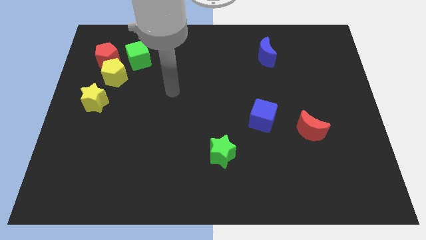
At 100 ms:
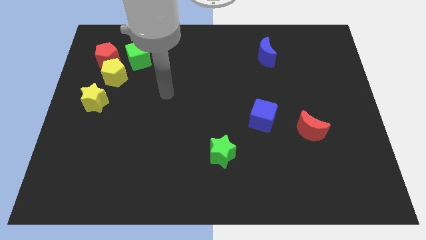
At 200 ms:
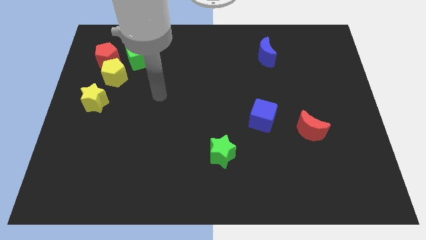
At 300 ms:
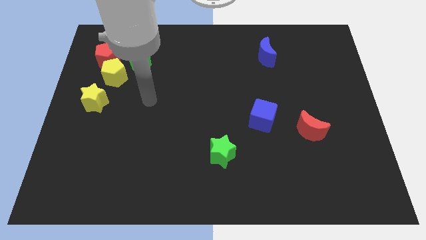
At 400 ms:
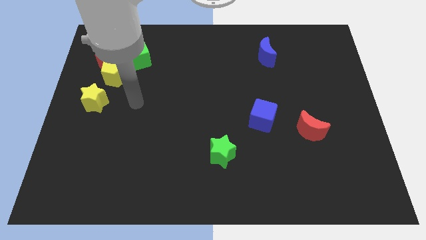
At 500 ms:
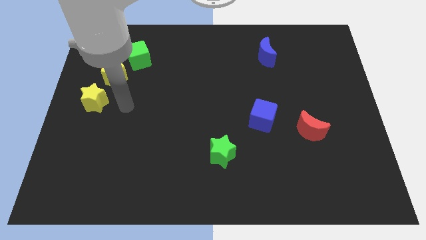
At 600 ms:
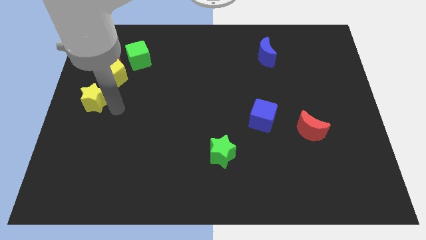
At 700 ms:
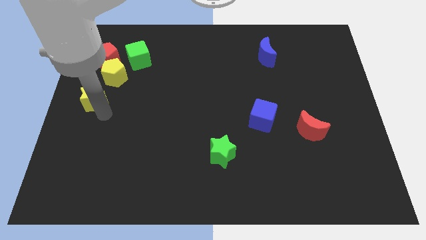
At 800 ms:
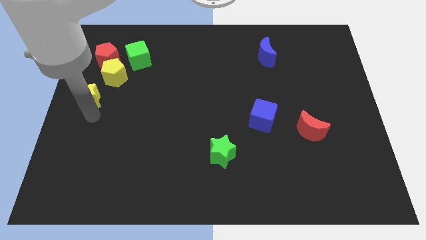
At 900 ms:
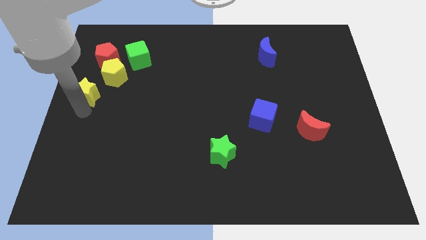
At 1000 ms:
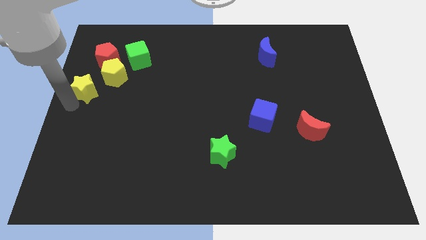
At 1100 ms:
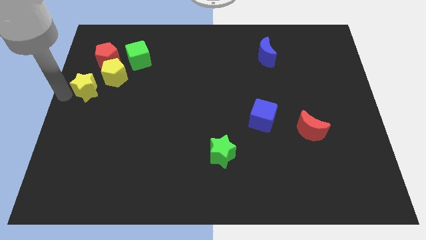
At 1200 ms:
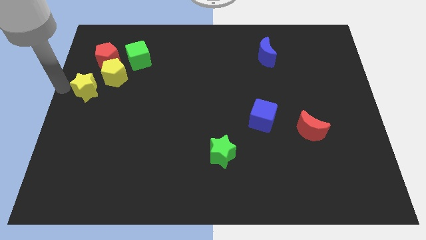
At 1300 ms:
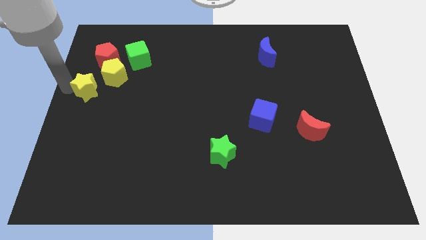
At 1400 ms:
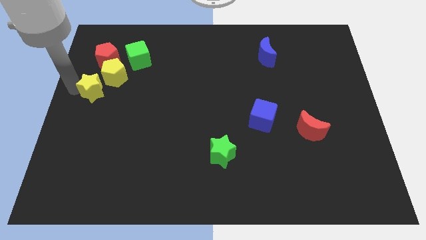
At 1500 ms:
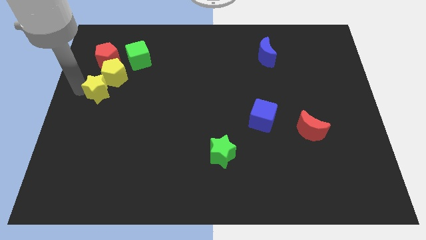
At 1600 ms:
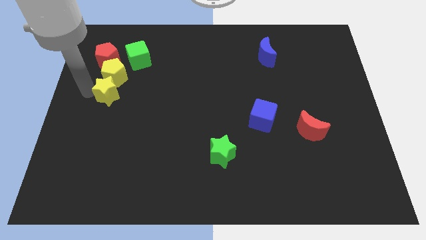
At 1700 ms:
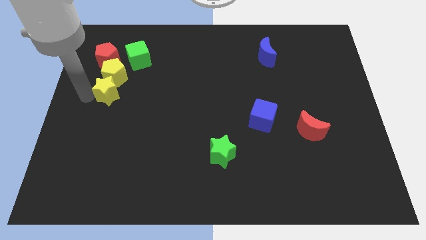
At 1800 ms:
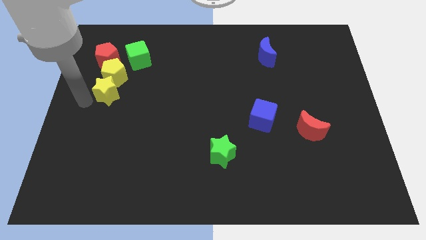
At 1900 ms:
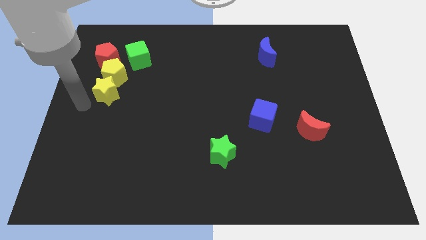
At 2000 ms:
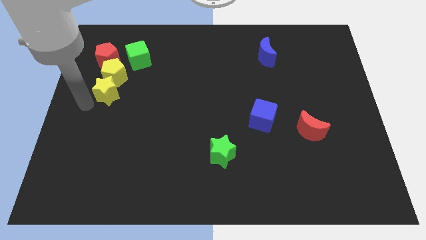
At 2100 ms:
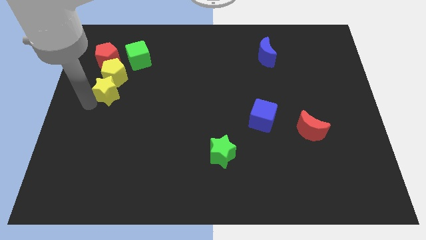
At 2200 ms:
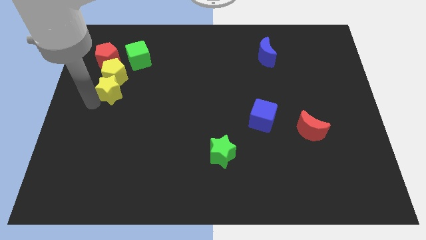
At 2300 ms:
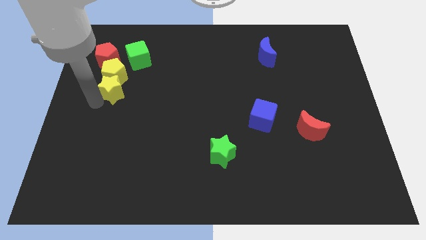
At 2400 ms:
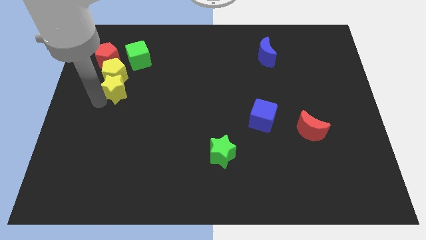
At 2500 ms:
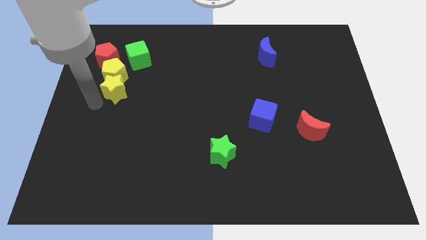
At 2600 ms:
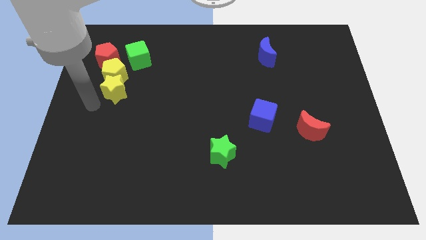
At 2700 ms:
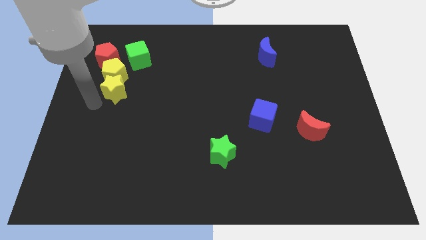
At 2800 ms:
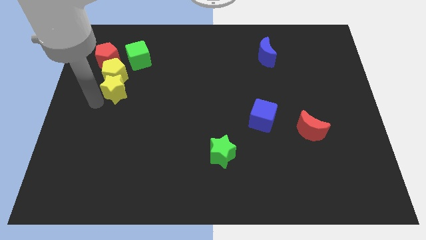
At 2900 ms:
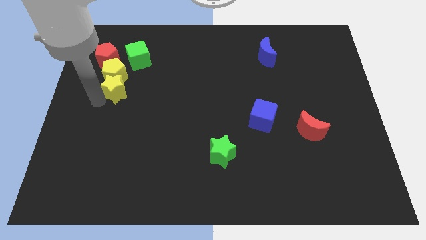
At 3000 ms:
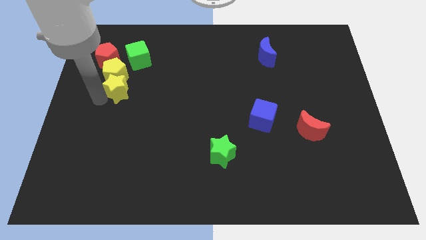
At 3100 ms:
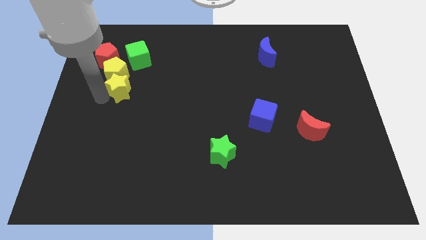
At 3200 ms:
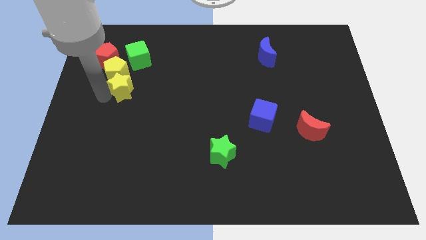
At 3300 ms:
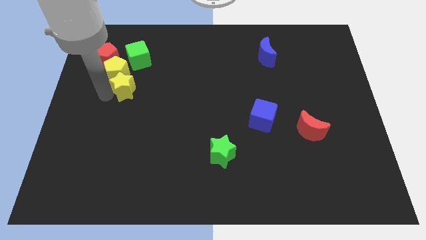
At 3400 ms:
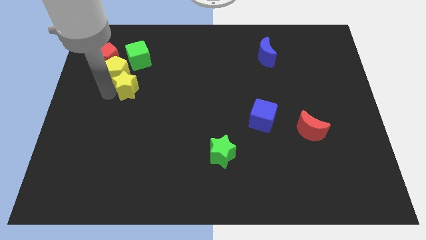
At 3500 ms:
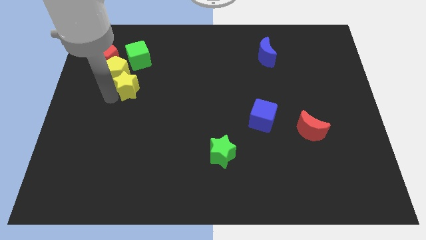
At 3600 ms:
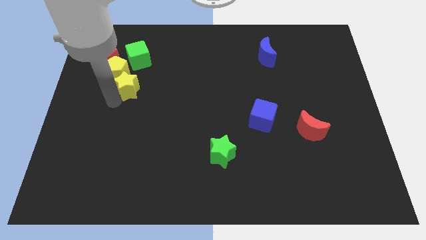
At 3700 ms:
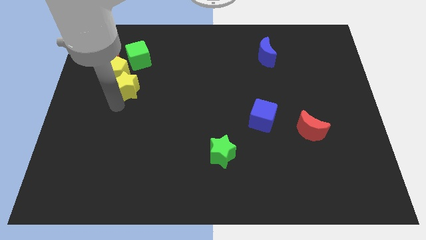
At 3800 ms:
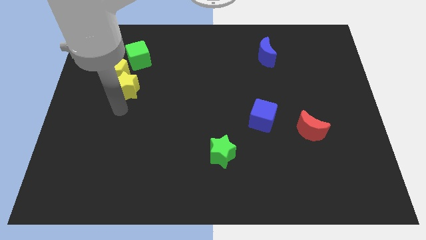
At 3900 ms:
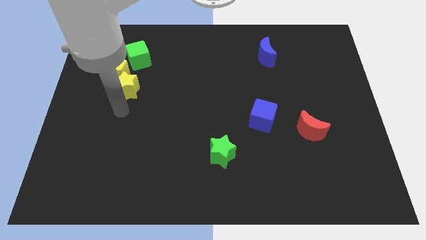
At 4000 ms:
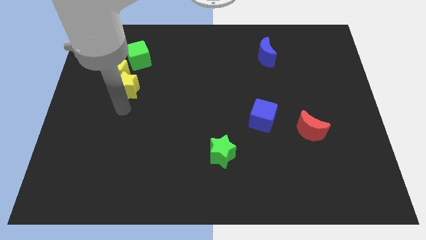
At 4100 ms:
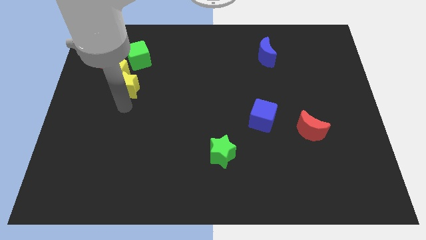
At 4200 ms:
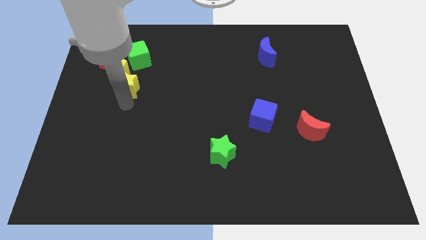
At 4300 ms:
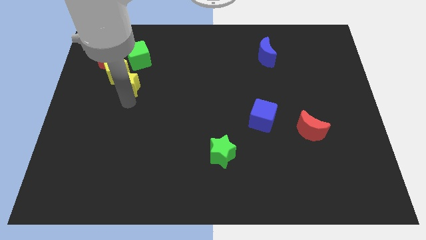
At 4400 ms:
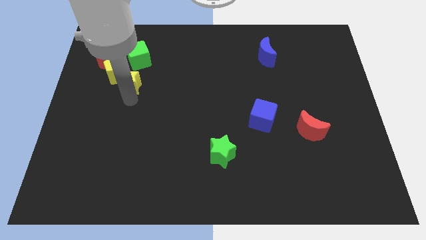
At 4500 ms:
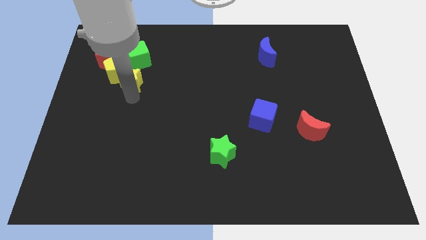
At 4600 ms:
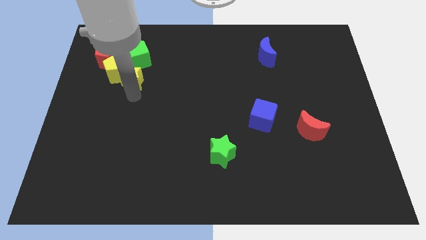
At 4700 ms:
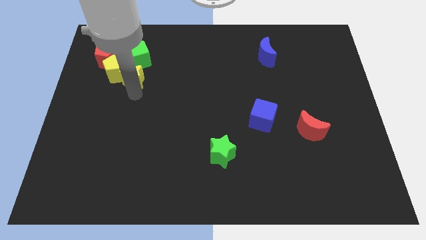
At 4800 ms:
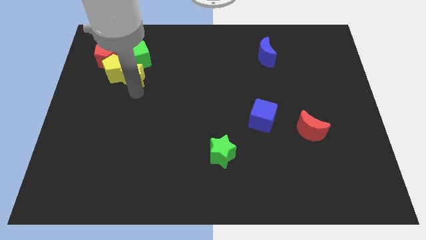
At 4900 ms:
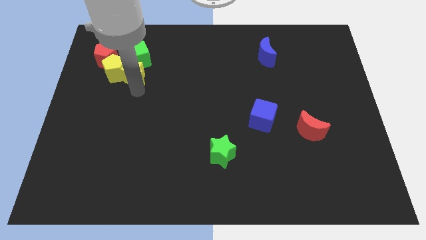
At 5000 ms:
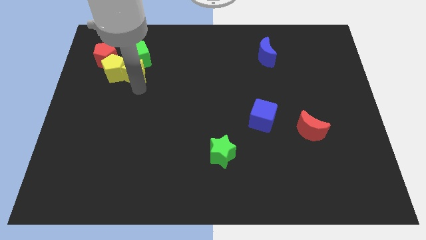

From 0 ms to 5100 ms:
move the yellow star close to the green cube

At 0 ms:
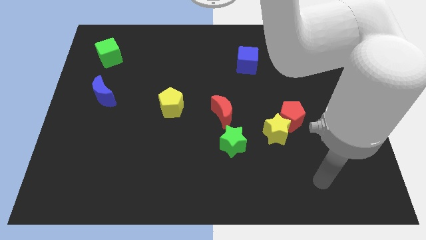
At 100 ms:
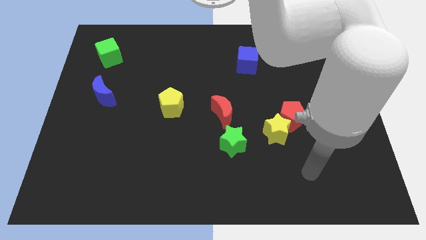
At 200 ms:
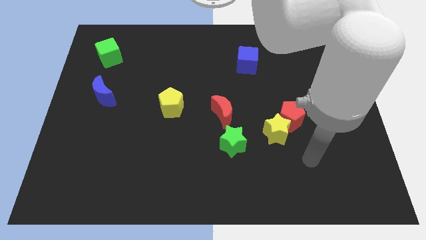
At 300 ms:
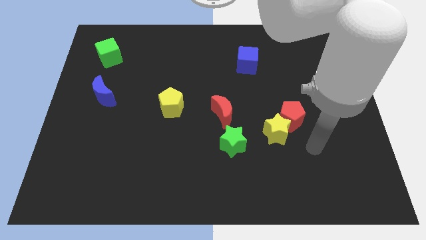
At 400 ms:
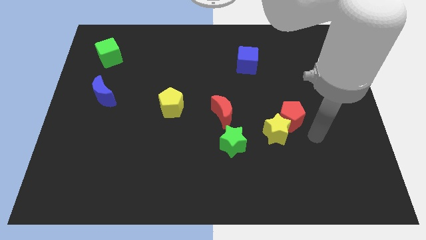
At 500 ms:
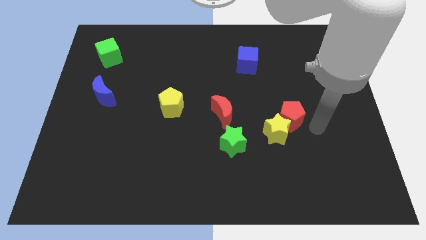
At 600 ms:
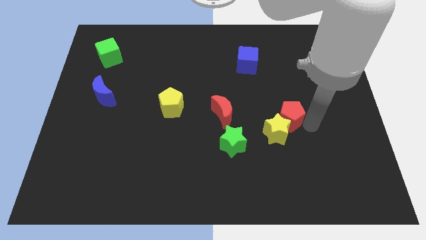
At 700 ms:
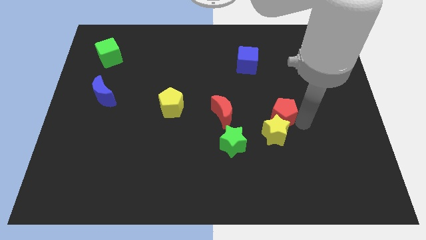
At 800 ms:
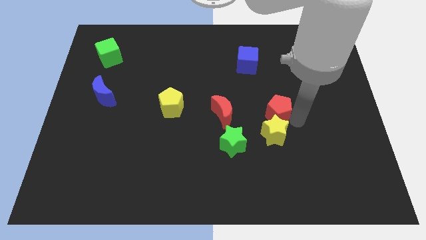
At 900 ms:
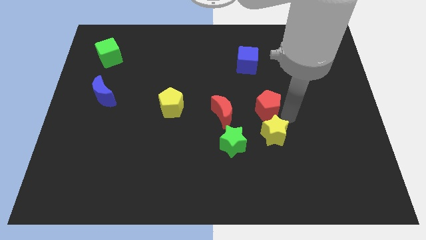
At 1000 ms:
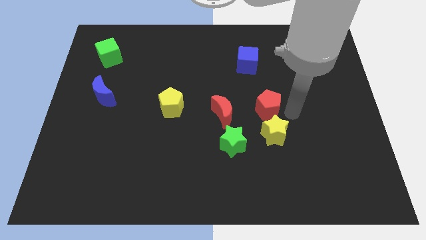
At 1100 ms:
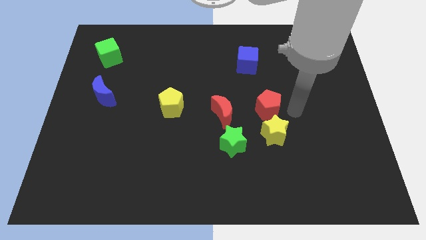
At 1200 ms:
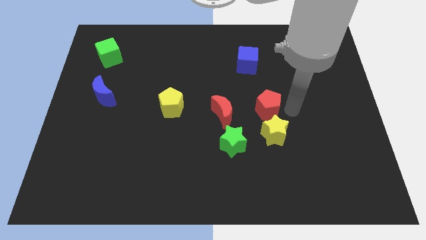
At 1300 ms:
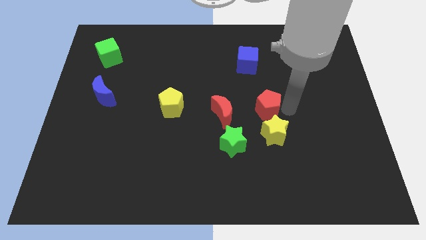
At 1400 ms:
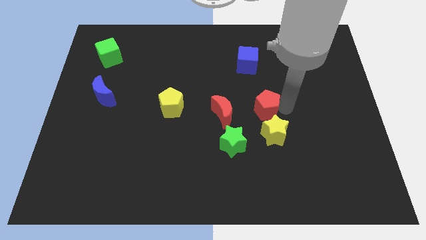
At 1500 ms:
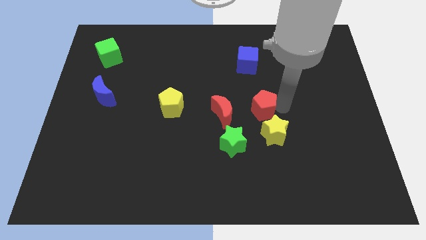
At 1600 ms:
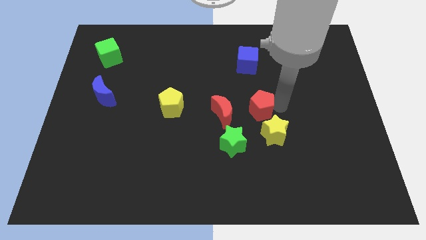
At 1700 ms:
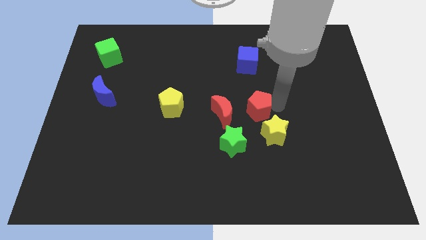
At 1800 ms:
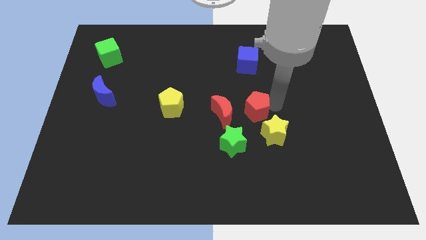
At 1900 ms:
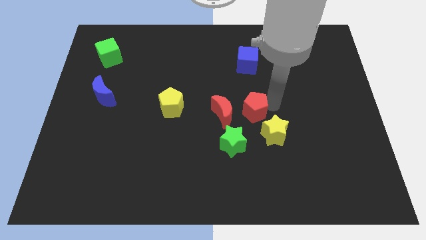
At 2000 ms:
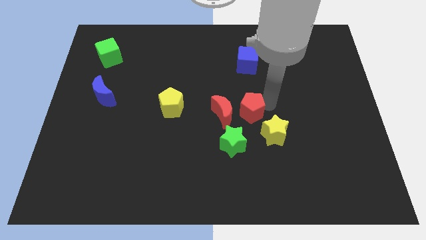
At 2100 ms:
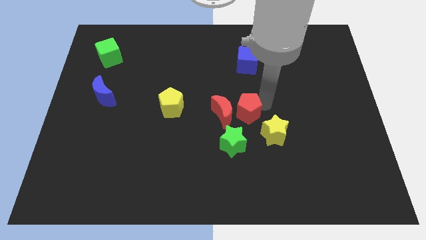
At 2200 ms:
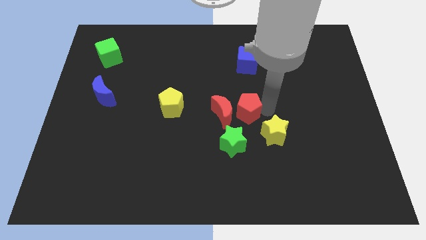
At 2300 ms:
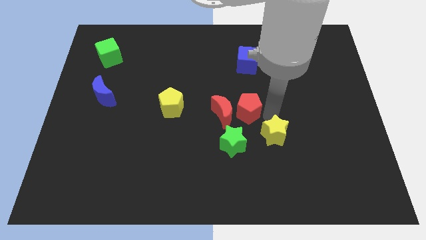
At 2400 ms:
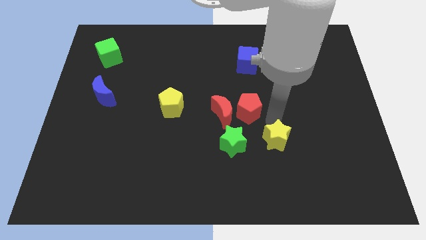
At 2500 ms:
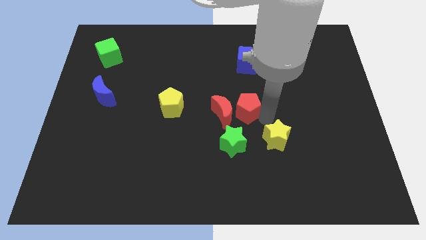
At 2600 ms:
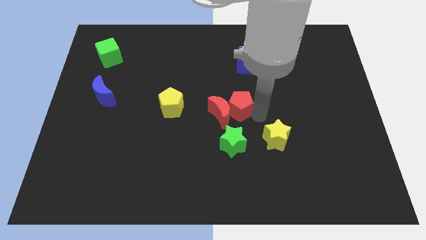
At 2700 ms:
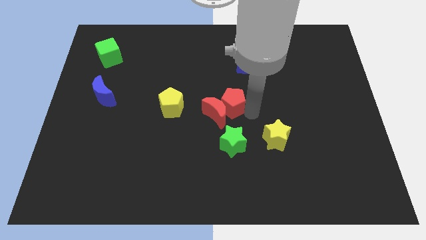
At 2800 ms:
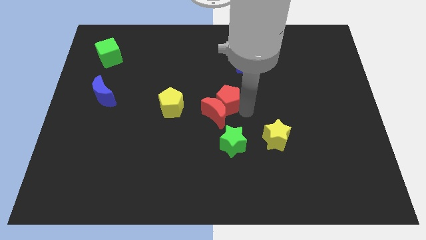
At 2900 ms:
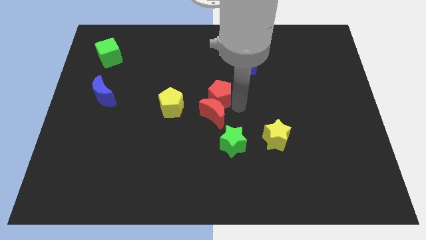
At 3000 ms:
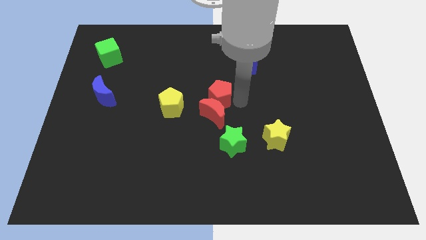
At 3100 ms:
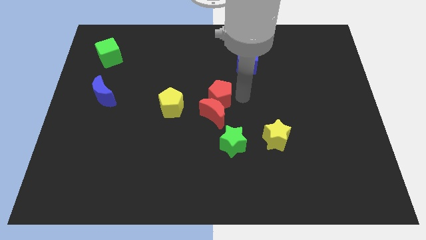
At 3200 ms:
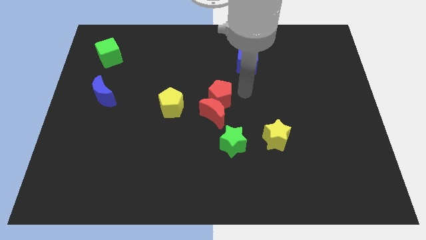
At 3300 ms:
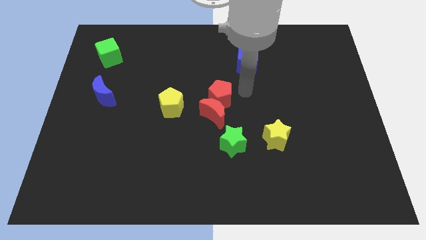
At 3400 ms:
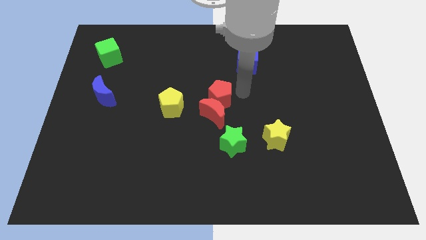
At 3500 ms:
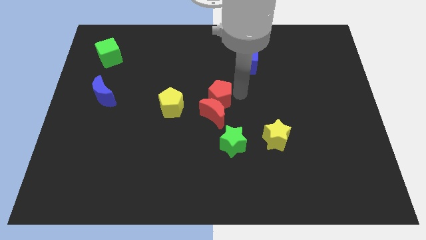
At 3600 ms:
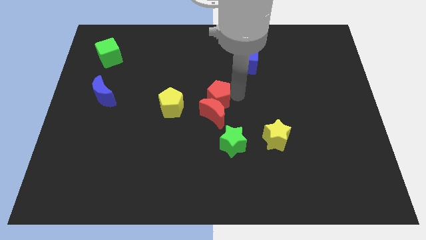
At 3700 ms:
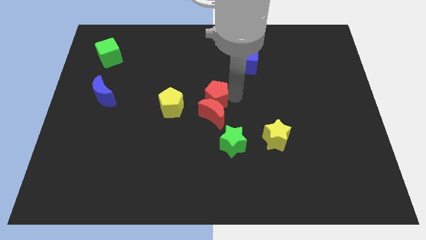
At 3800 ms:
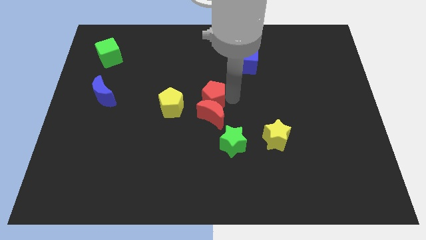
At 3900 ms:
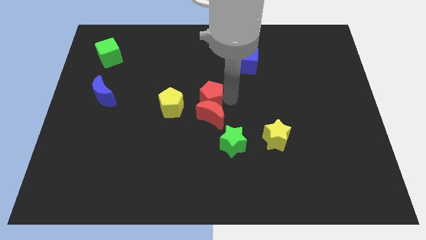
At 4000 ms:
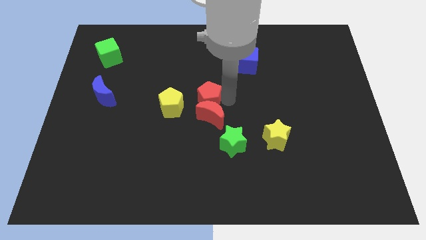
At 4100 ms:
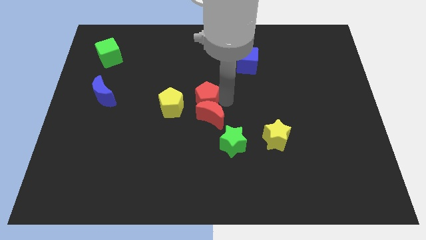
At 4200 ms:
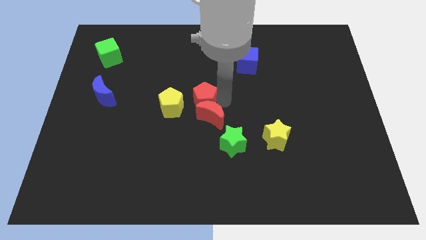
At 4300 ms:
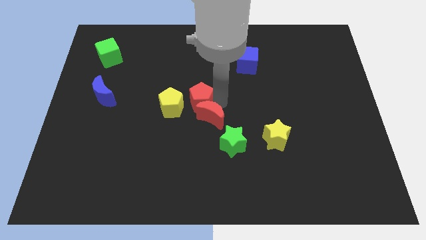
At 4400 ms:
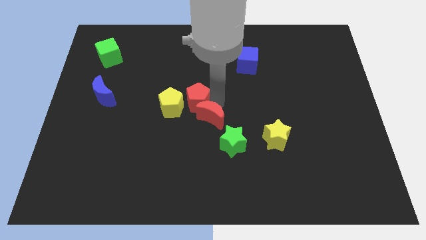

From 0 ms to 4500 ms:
slide the red pentagon towards the yellow pentagon
